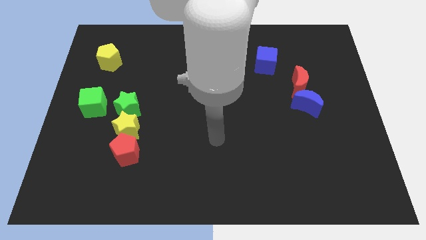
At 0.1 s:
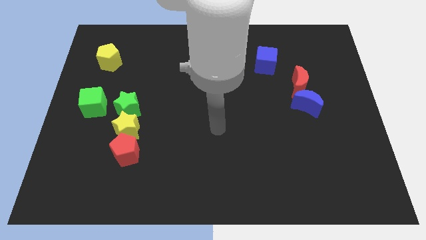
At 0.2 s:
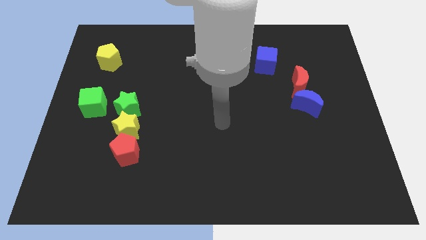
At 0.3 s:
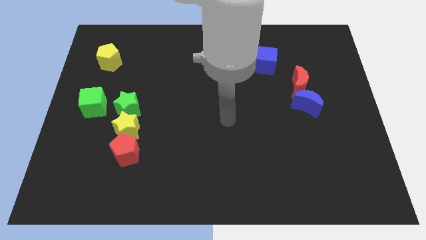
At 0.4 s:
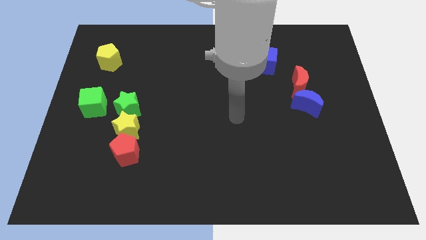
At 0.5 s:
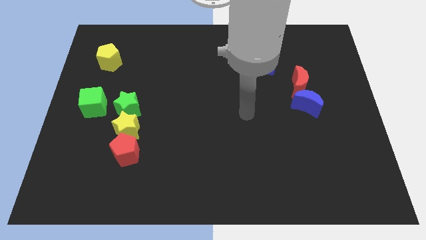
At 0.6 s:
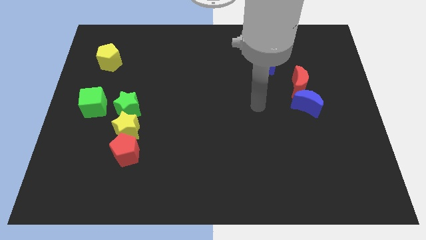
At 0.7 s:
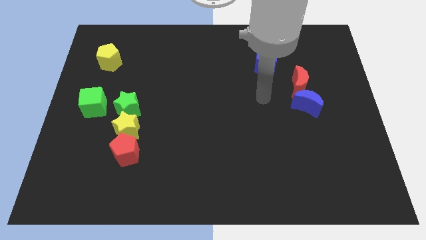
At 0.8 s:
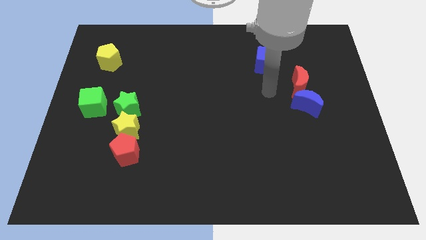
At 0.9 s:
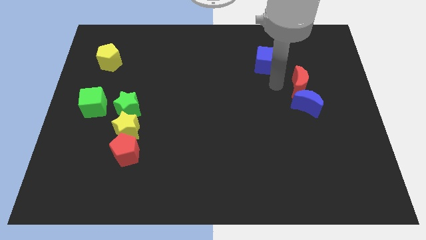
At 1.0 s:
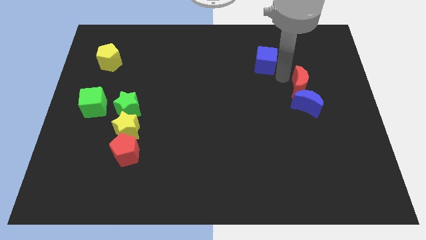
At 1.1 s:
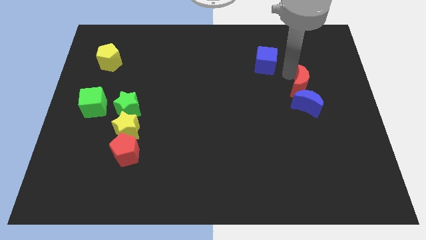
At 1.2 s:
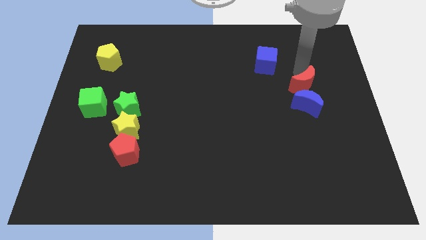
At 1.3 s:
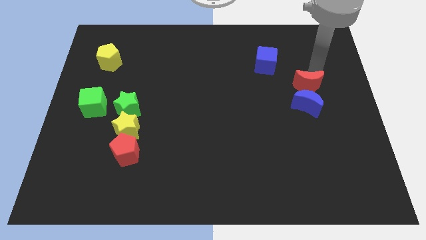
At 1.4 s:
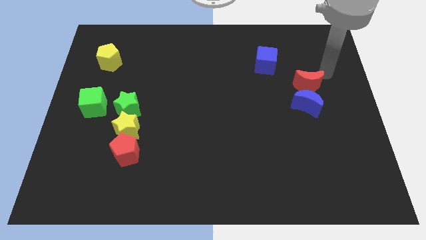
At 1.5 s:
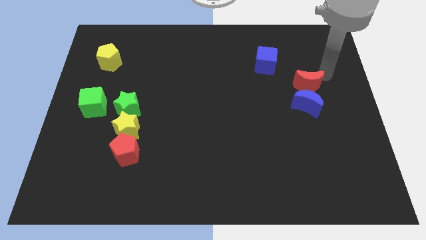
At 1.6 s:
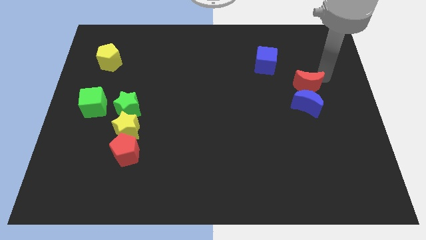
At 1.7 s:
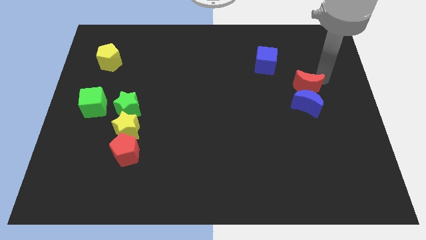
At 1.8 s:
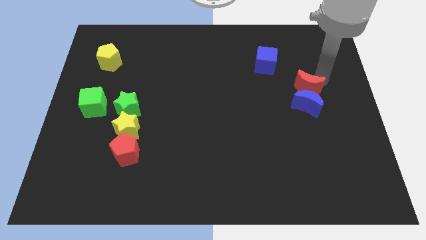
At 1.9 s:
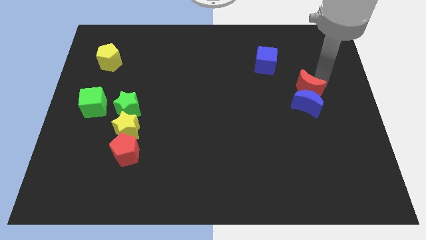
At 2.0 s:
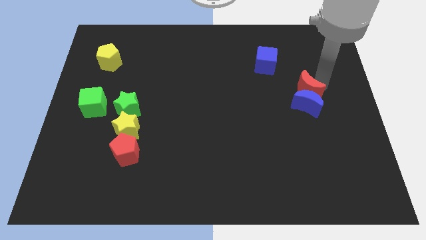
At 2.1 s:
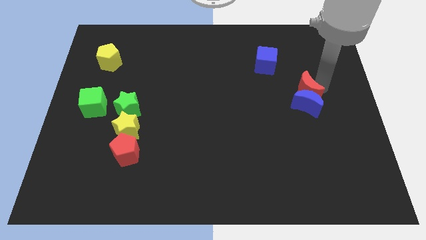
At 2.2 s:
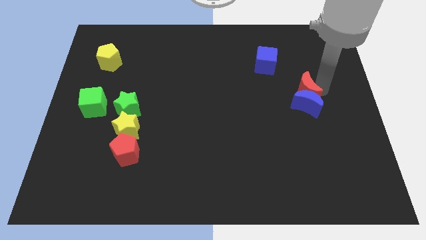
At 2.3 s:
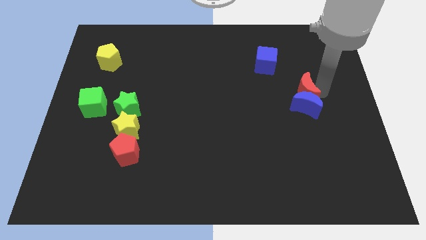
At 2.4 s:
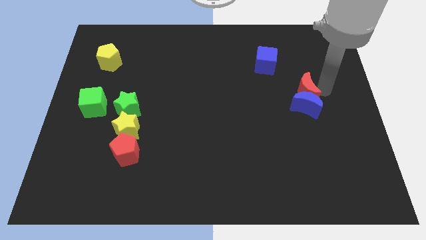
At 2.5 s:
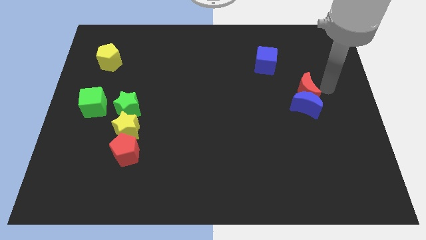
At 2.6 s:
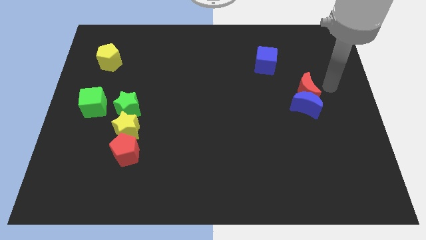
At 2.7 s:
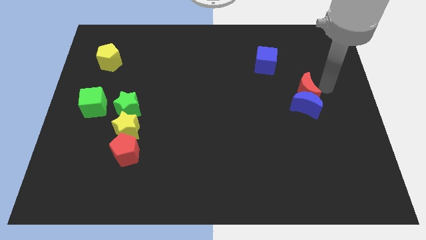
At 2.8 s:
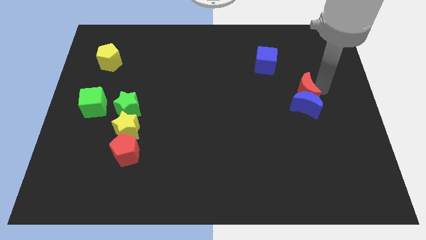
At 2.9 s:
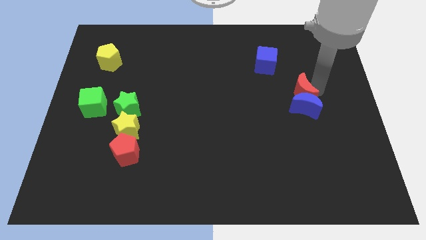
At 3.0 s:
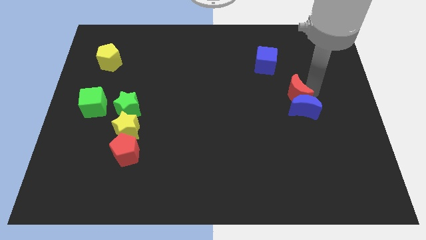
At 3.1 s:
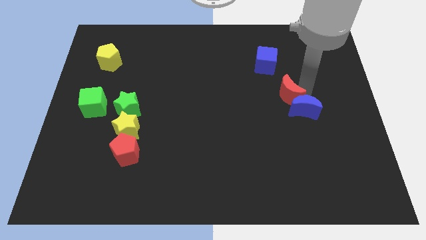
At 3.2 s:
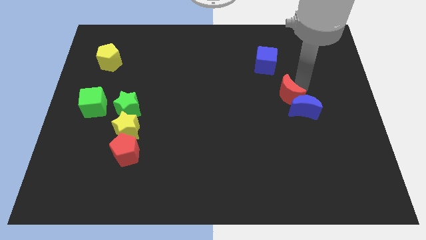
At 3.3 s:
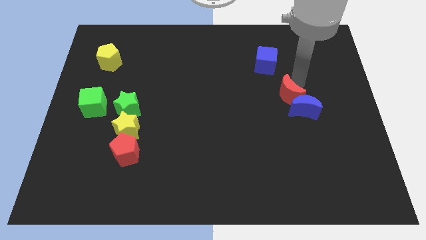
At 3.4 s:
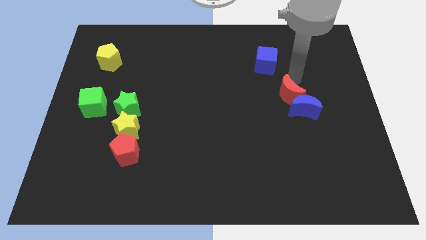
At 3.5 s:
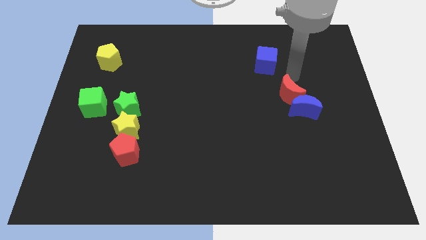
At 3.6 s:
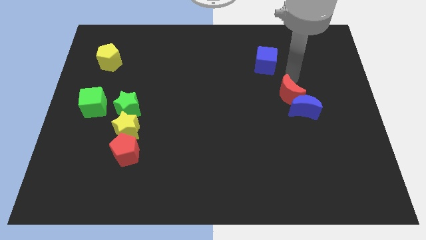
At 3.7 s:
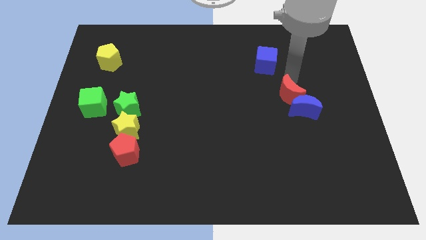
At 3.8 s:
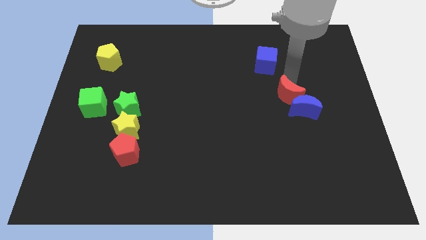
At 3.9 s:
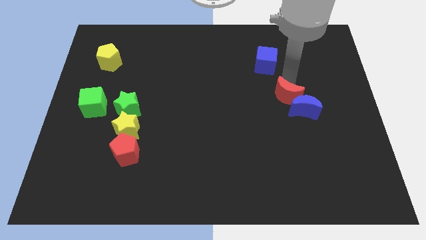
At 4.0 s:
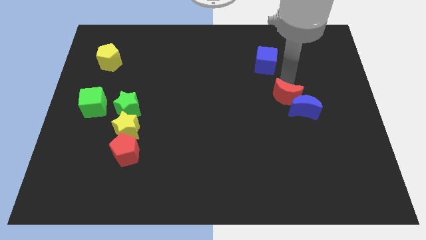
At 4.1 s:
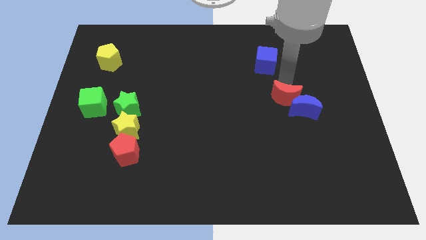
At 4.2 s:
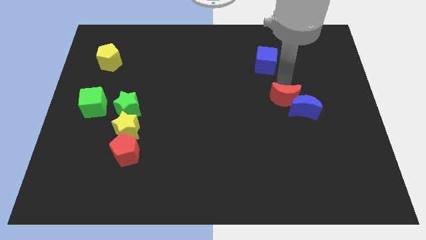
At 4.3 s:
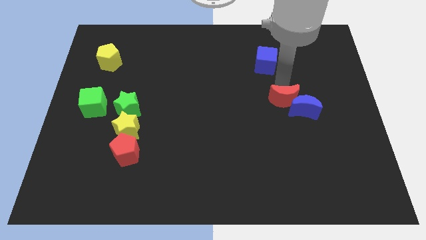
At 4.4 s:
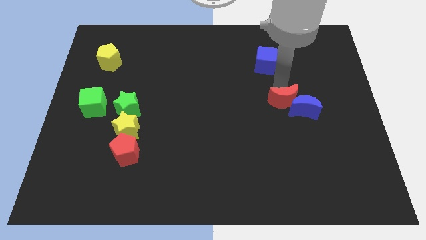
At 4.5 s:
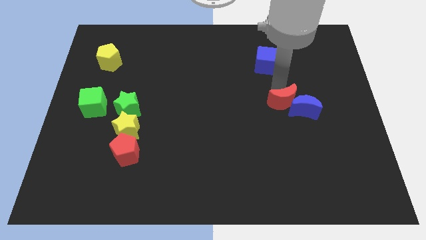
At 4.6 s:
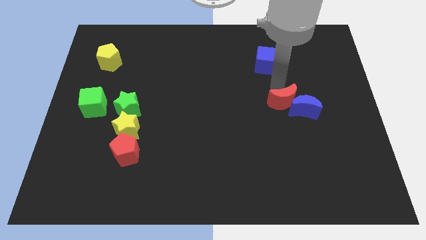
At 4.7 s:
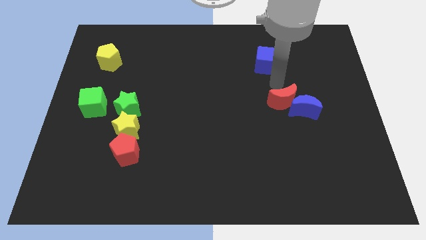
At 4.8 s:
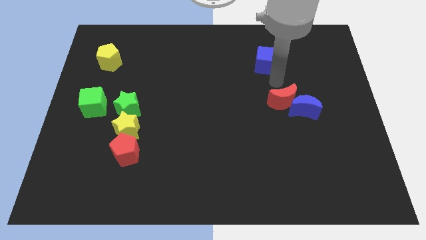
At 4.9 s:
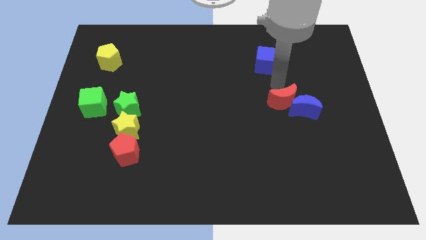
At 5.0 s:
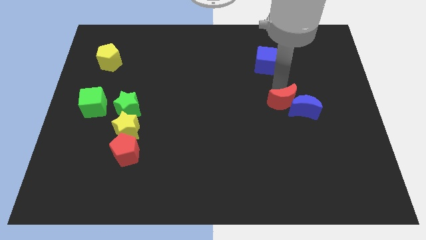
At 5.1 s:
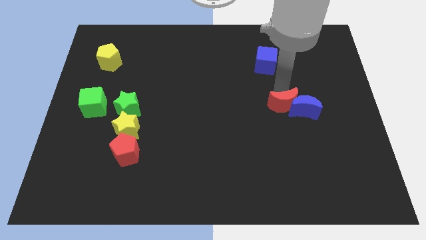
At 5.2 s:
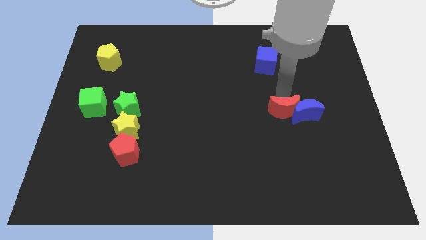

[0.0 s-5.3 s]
push the red moon down a bit

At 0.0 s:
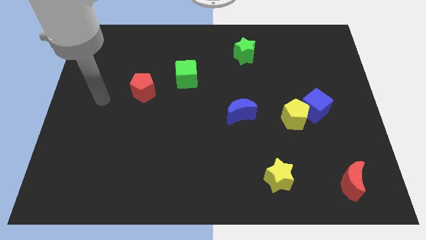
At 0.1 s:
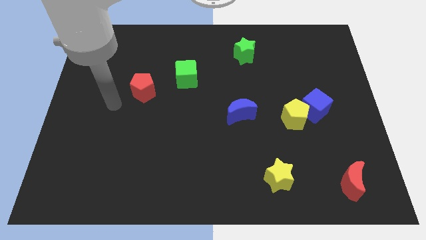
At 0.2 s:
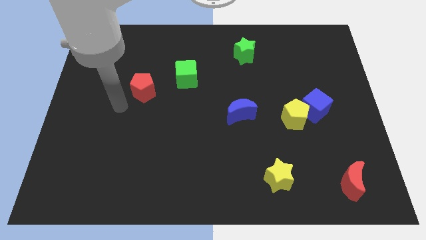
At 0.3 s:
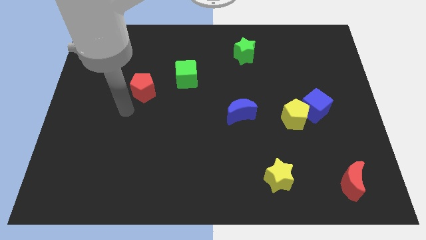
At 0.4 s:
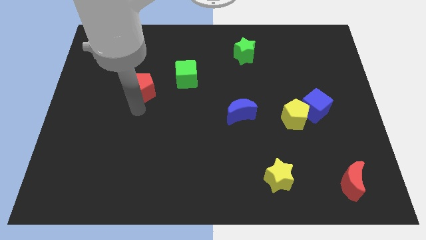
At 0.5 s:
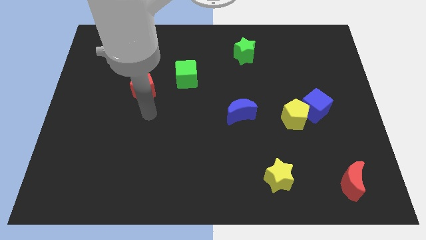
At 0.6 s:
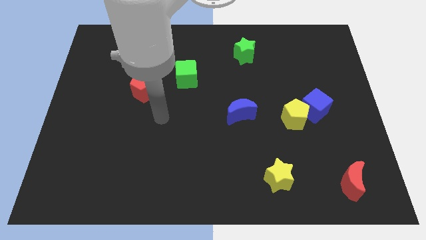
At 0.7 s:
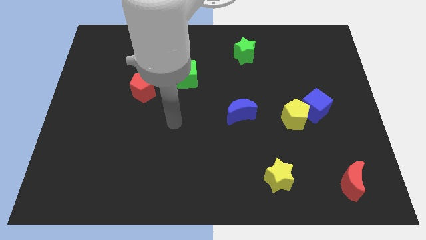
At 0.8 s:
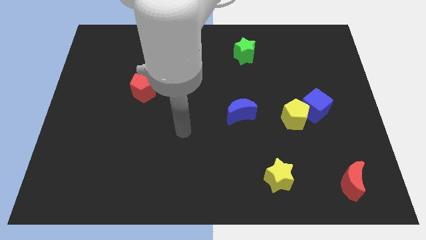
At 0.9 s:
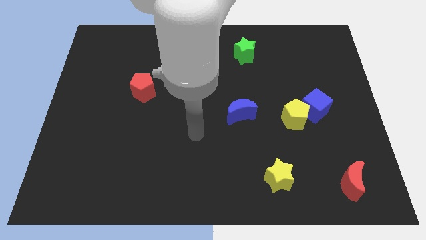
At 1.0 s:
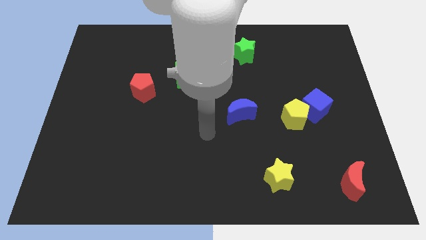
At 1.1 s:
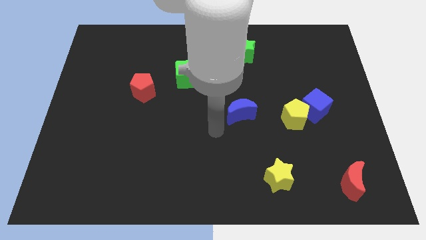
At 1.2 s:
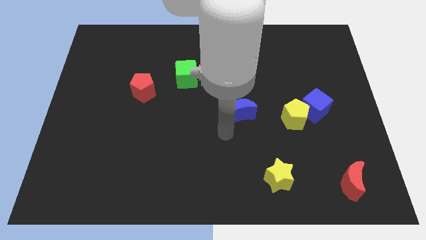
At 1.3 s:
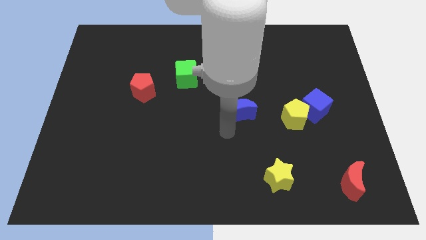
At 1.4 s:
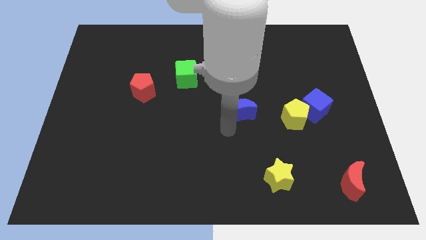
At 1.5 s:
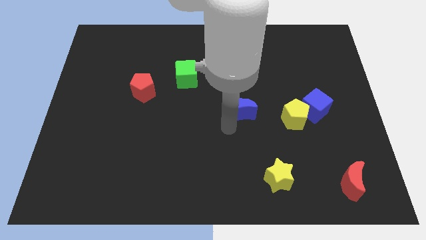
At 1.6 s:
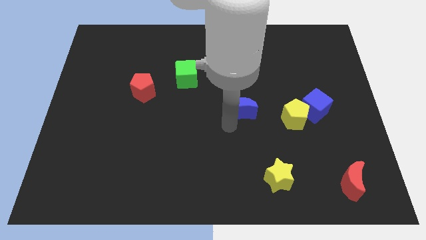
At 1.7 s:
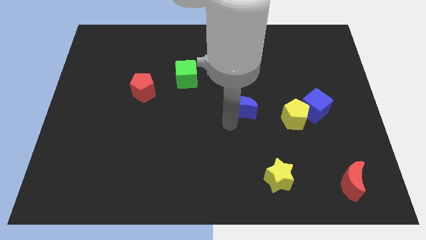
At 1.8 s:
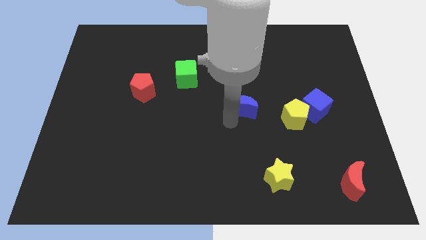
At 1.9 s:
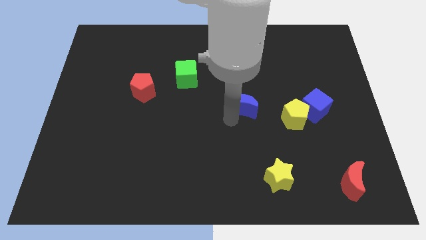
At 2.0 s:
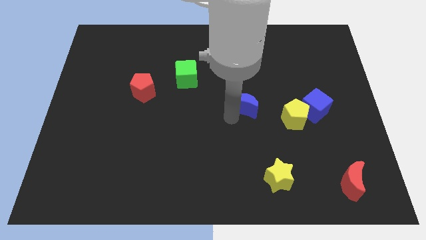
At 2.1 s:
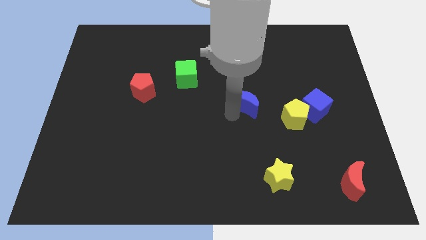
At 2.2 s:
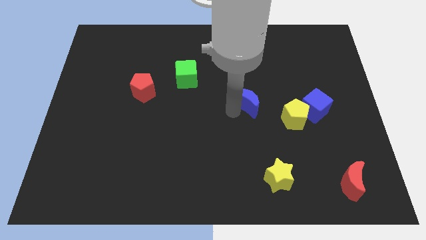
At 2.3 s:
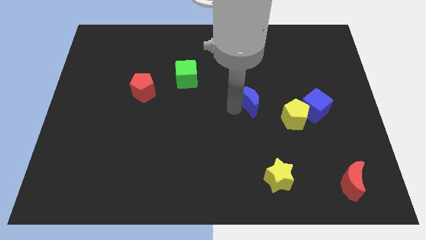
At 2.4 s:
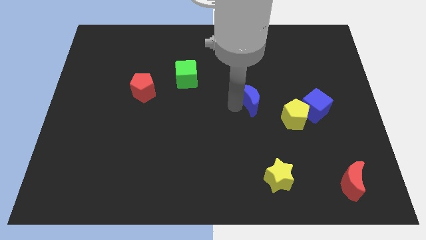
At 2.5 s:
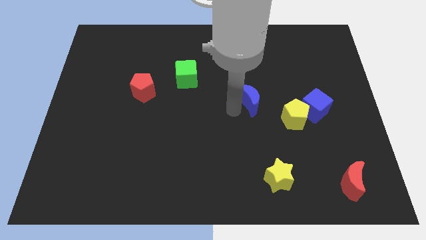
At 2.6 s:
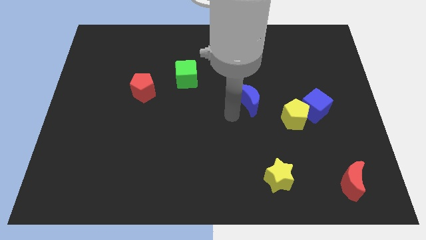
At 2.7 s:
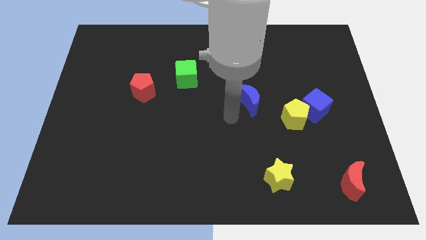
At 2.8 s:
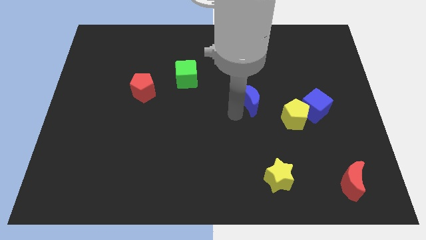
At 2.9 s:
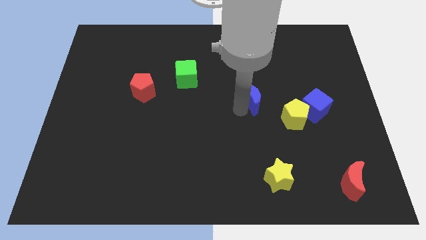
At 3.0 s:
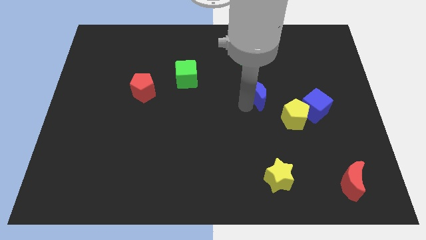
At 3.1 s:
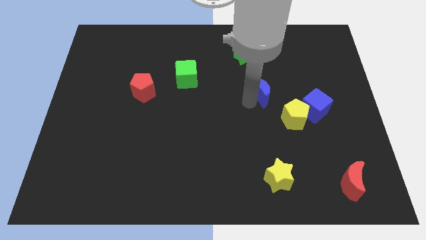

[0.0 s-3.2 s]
push the blue moon up and then right slightly
